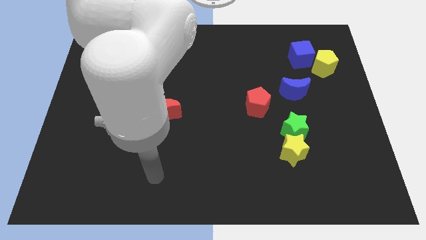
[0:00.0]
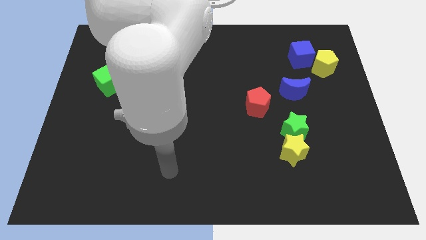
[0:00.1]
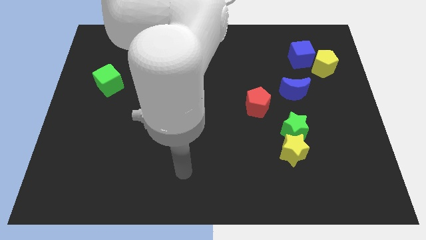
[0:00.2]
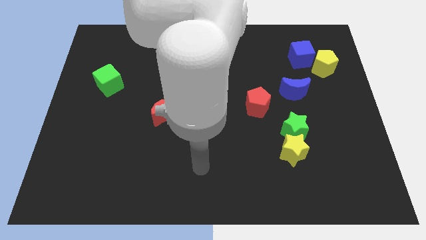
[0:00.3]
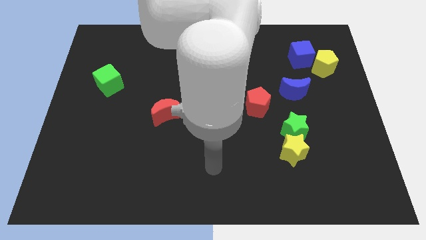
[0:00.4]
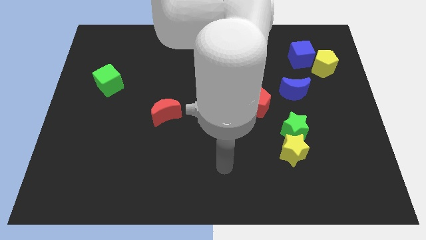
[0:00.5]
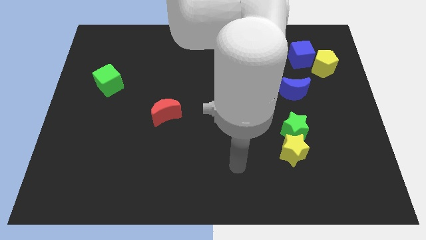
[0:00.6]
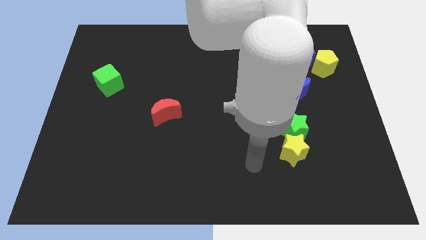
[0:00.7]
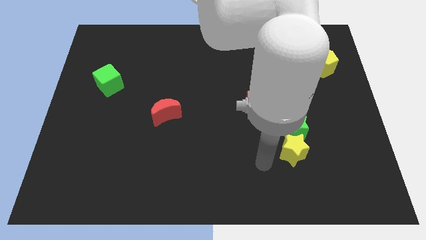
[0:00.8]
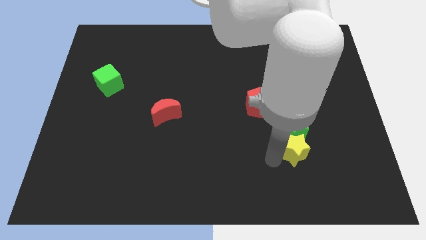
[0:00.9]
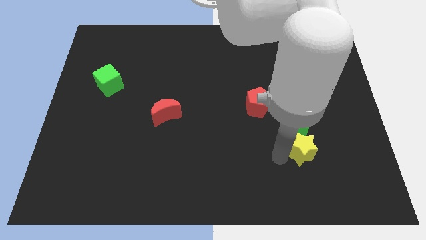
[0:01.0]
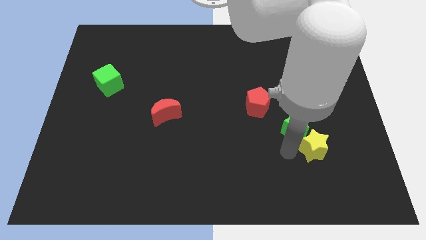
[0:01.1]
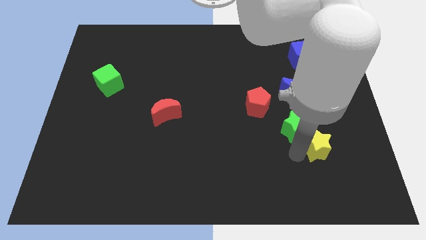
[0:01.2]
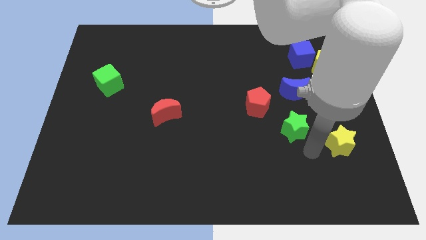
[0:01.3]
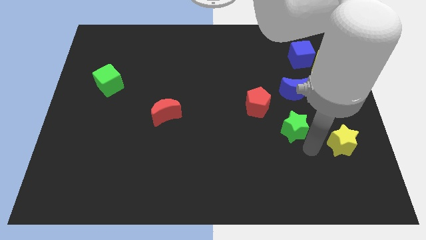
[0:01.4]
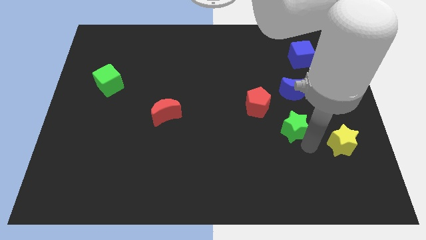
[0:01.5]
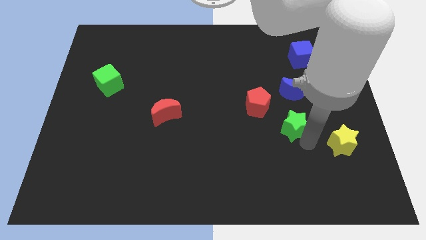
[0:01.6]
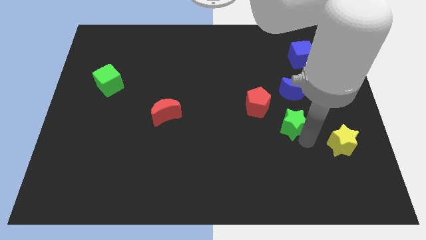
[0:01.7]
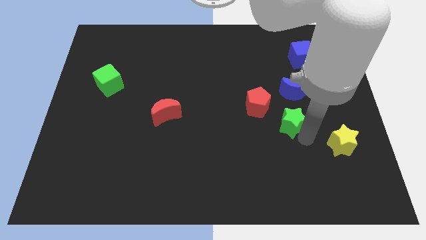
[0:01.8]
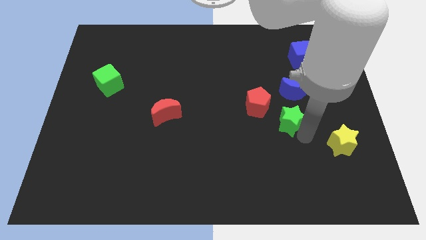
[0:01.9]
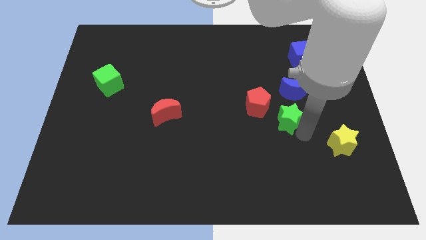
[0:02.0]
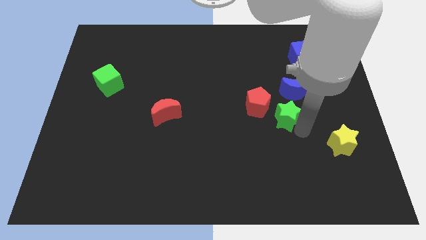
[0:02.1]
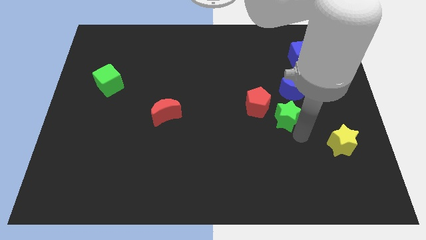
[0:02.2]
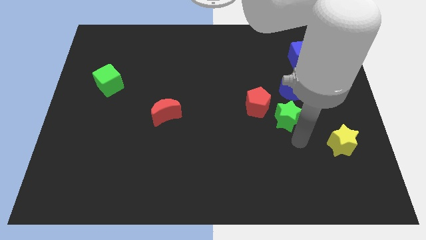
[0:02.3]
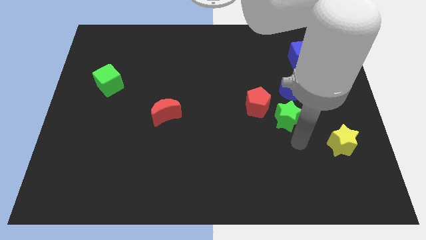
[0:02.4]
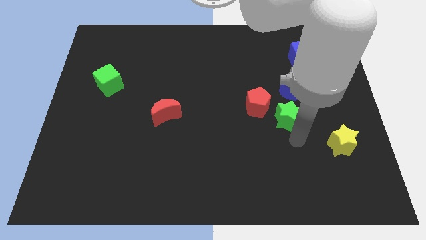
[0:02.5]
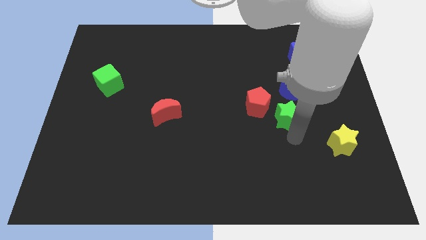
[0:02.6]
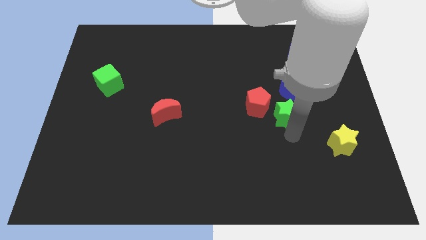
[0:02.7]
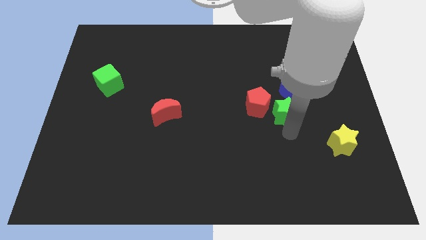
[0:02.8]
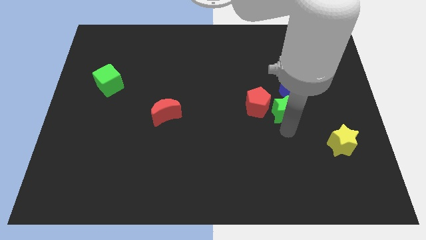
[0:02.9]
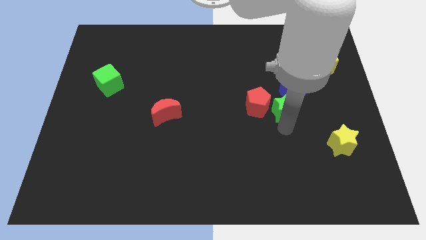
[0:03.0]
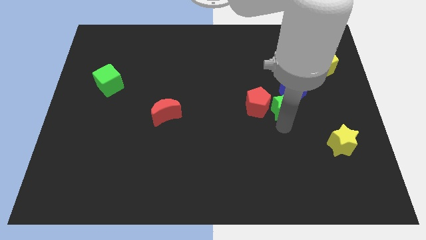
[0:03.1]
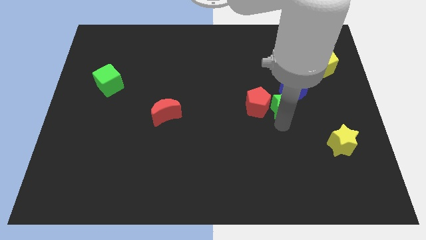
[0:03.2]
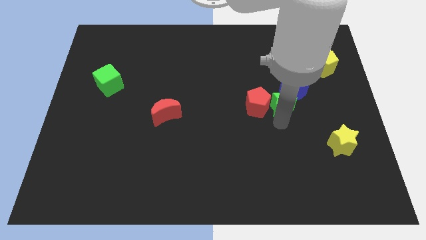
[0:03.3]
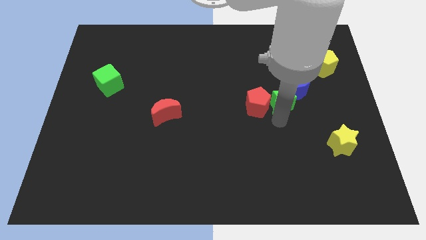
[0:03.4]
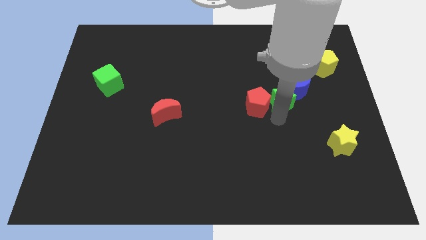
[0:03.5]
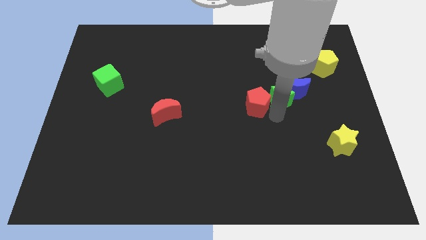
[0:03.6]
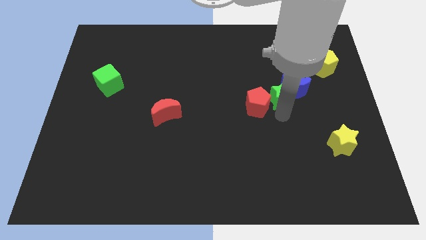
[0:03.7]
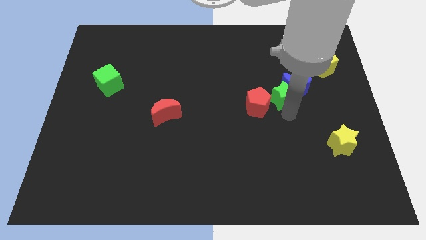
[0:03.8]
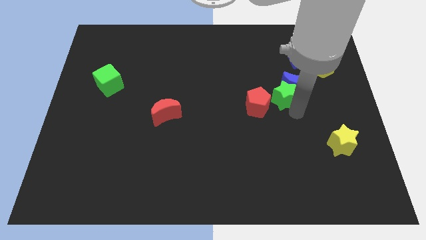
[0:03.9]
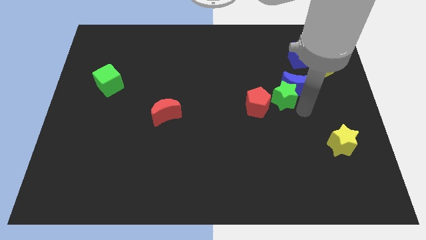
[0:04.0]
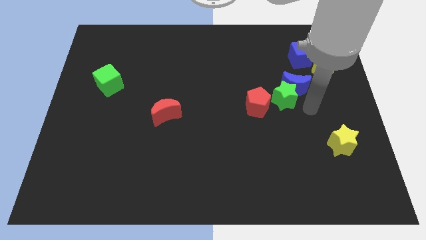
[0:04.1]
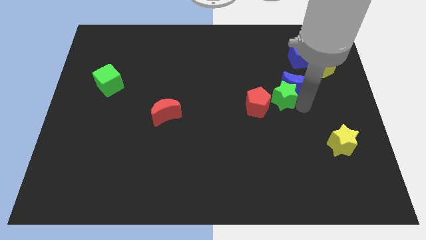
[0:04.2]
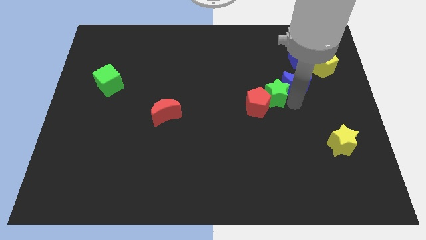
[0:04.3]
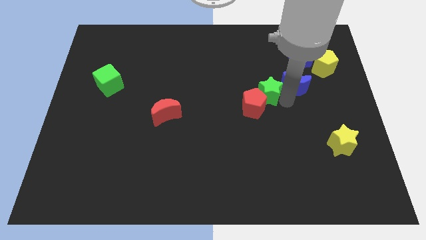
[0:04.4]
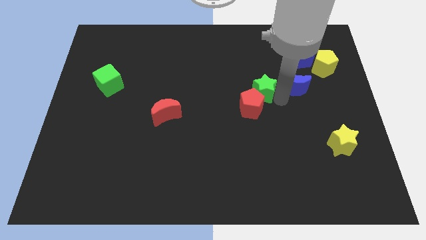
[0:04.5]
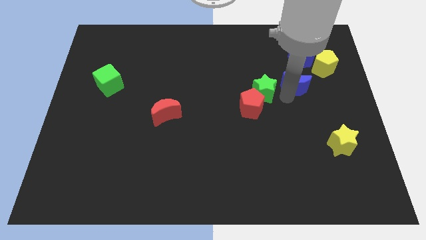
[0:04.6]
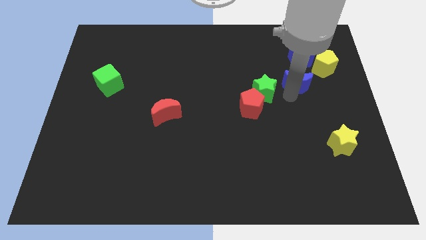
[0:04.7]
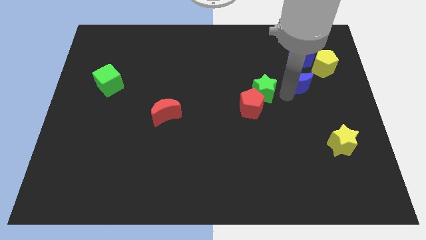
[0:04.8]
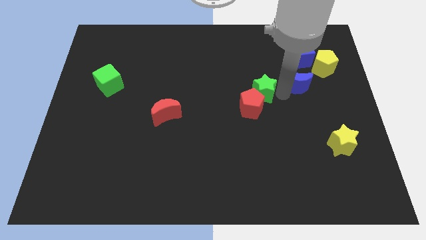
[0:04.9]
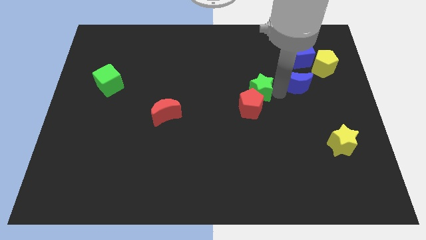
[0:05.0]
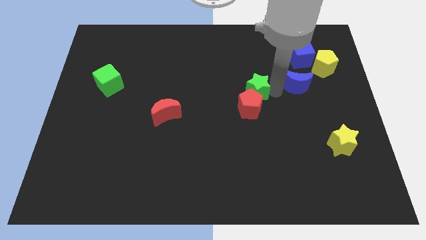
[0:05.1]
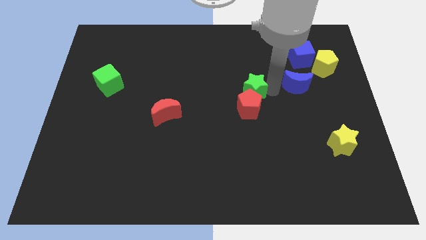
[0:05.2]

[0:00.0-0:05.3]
put the green star to the top left side of the red pentagon

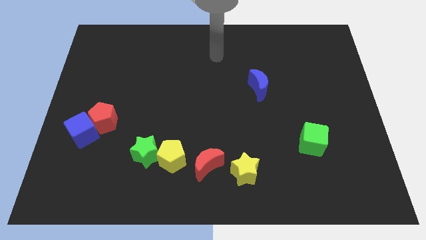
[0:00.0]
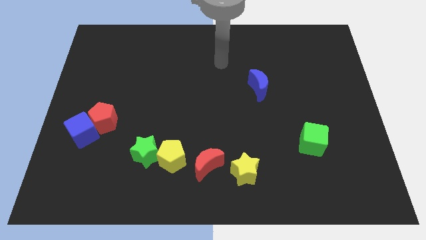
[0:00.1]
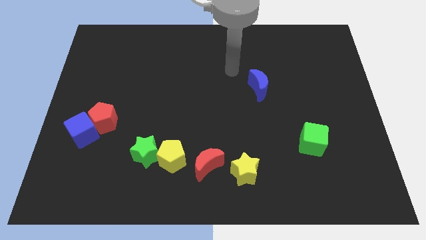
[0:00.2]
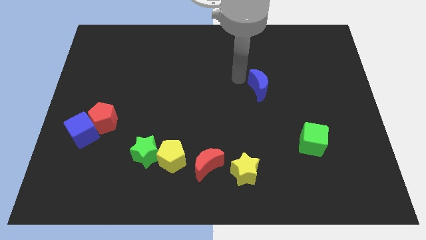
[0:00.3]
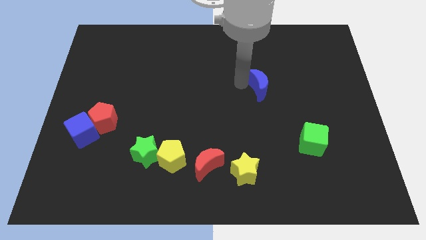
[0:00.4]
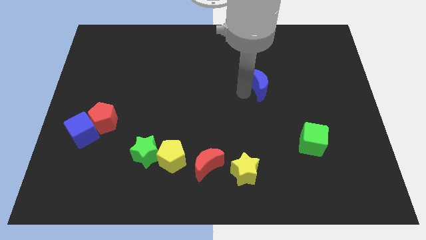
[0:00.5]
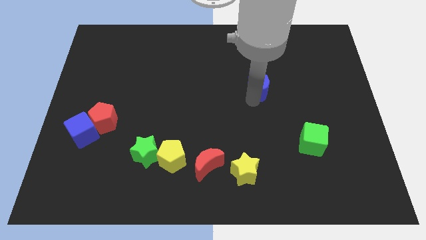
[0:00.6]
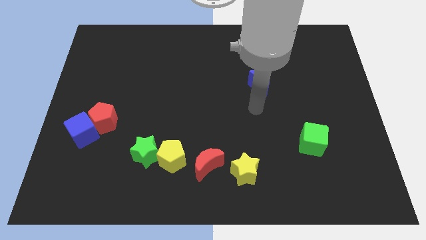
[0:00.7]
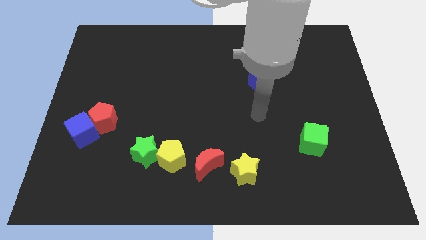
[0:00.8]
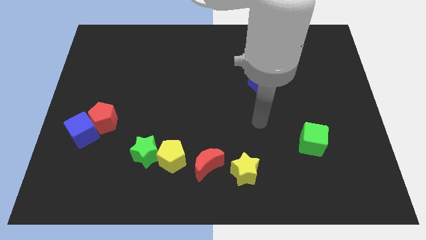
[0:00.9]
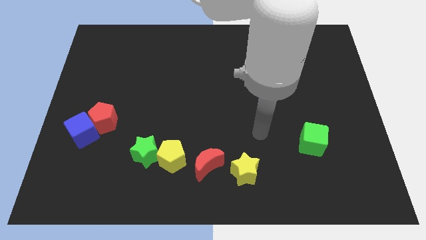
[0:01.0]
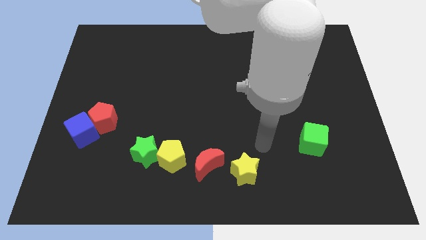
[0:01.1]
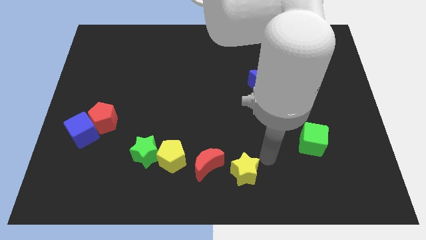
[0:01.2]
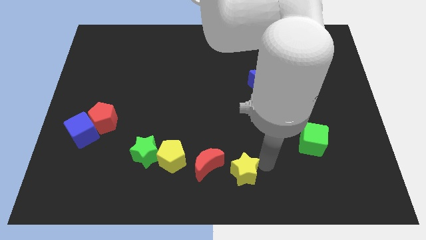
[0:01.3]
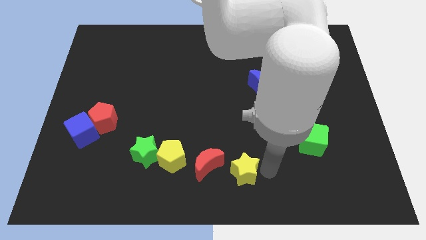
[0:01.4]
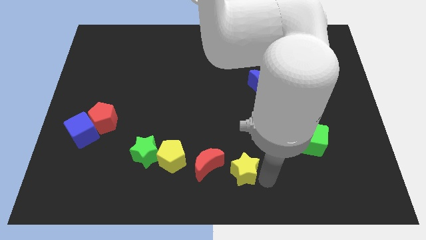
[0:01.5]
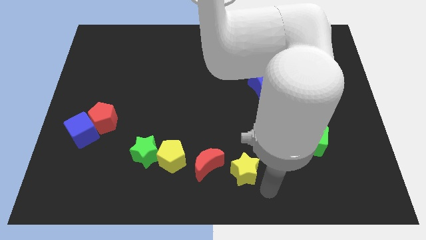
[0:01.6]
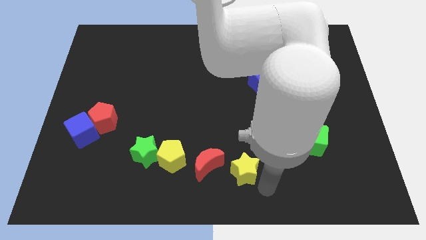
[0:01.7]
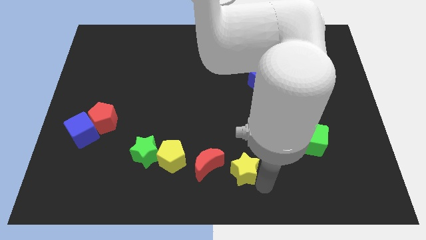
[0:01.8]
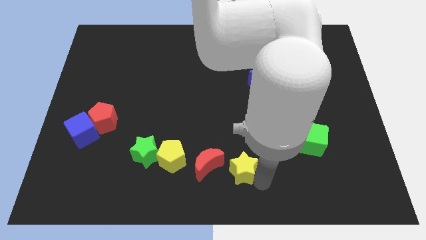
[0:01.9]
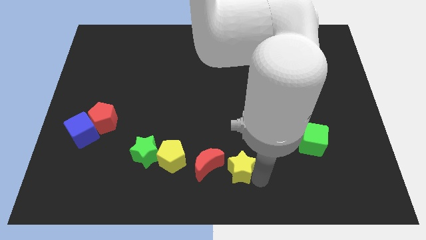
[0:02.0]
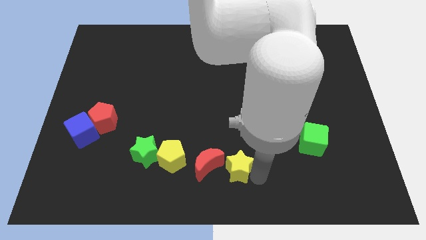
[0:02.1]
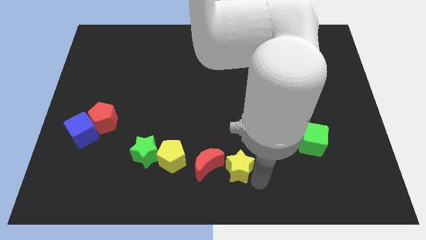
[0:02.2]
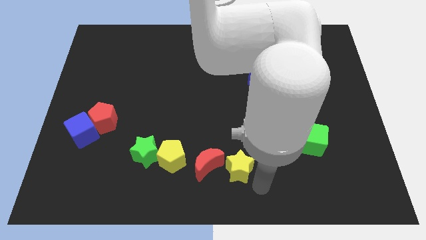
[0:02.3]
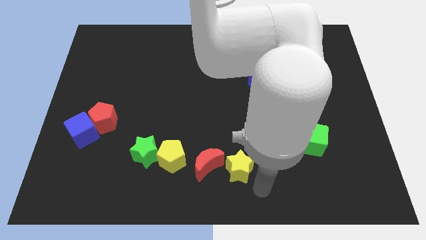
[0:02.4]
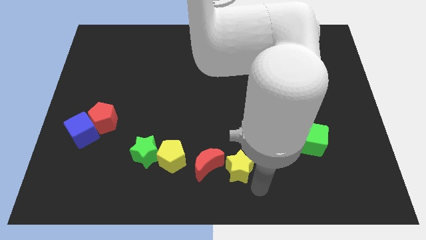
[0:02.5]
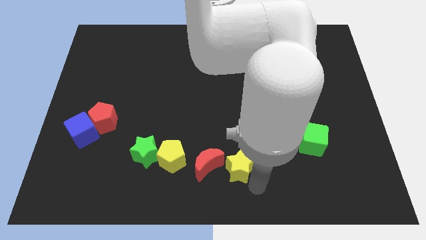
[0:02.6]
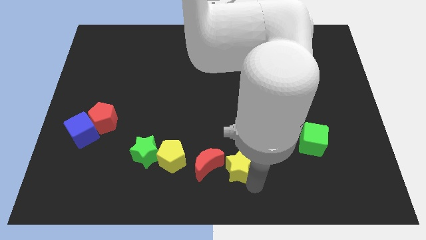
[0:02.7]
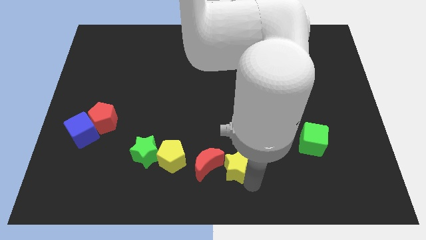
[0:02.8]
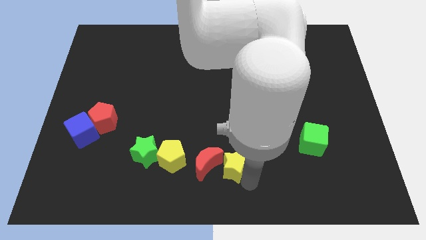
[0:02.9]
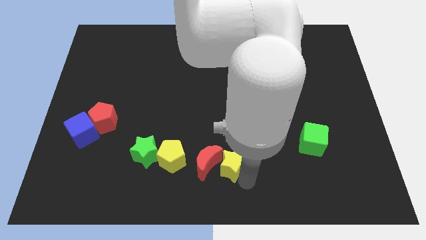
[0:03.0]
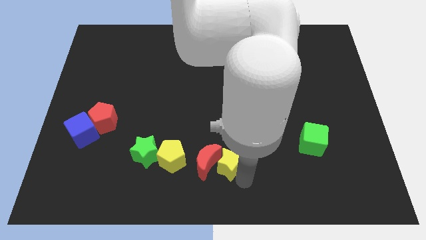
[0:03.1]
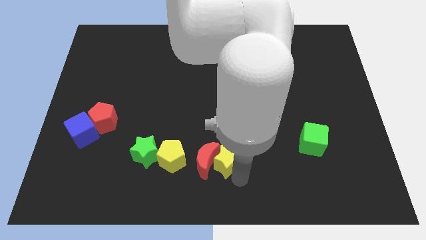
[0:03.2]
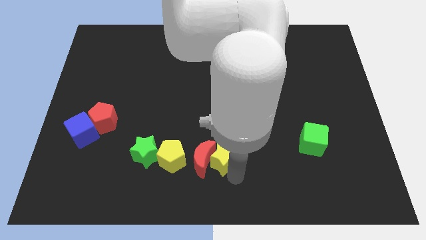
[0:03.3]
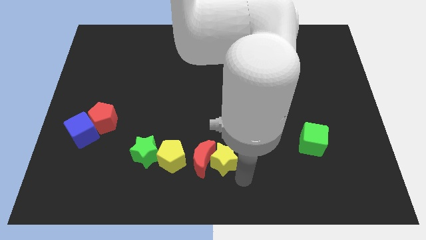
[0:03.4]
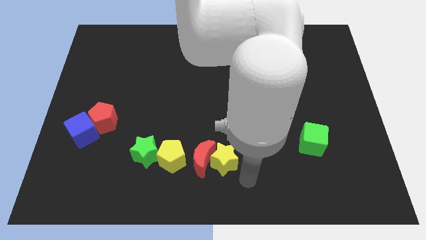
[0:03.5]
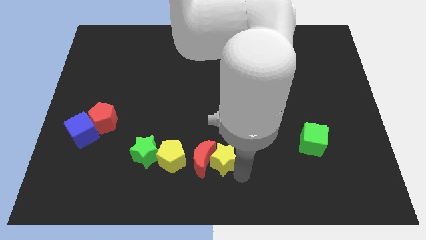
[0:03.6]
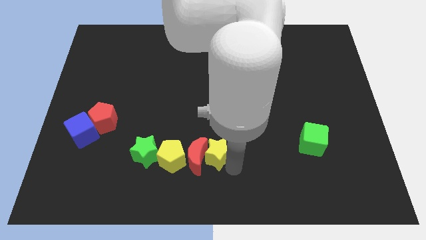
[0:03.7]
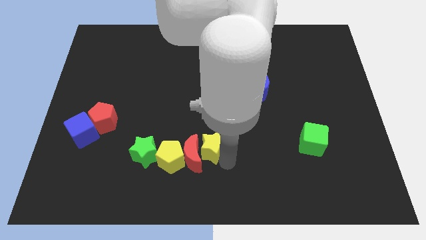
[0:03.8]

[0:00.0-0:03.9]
push the yellow star diagonally up and to the right of the yellow pentagon
